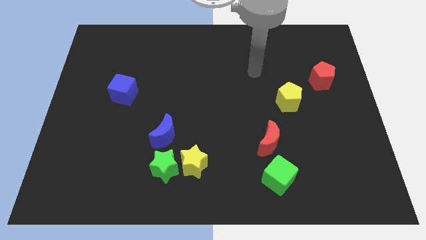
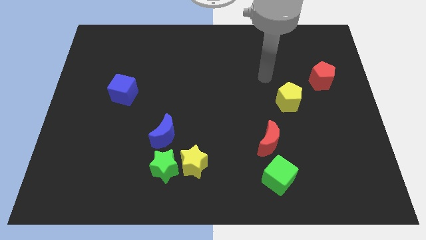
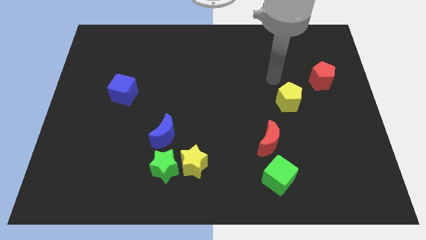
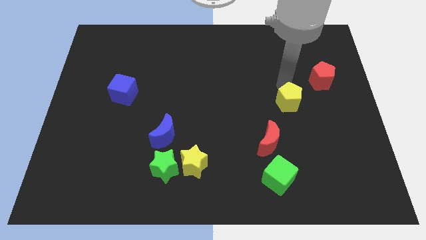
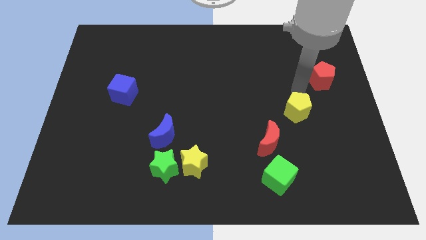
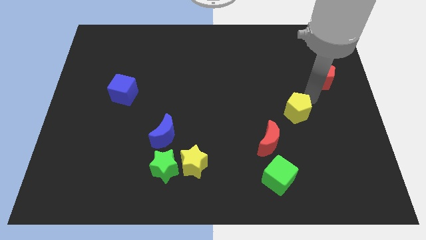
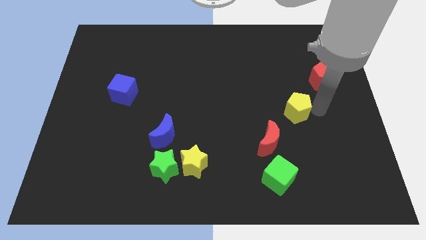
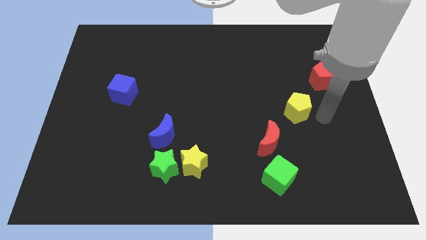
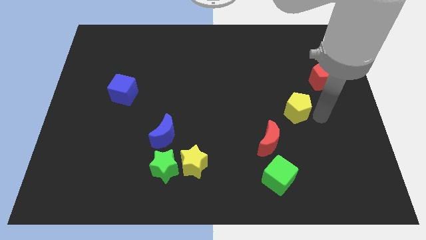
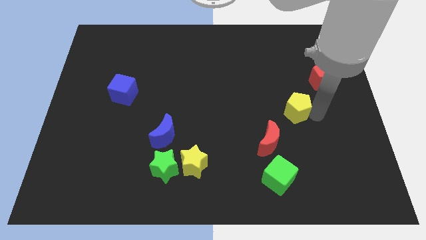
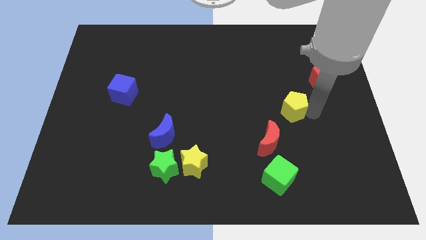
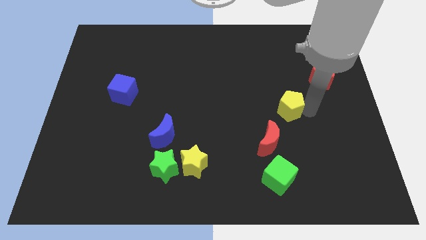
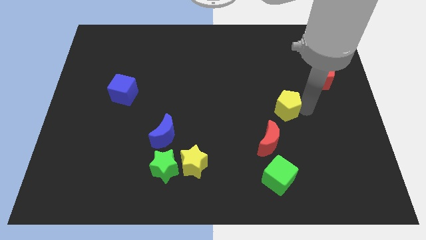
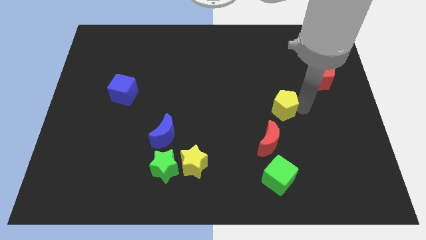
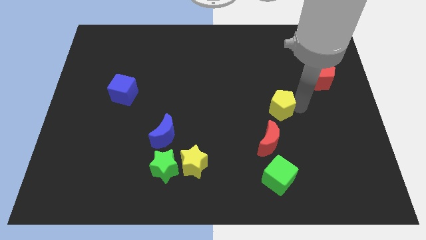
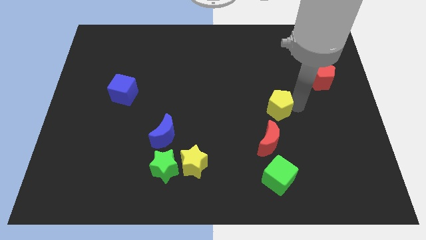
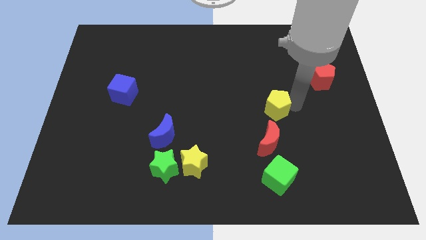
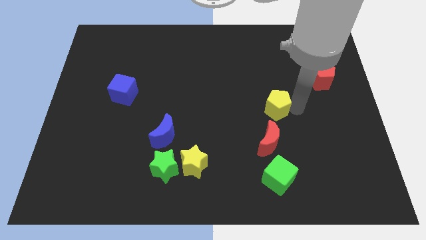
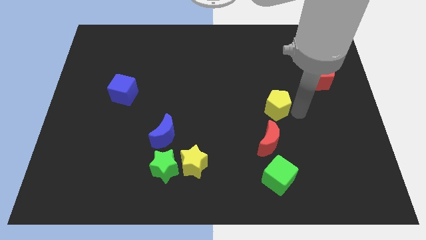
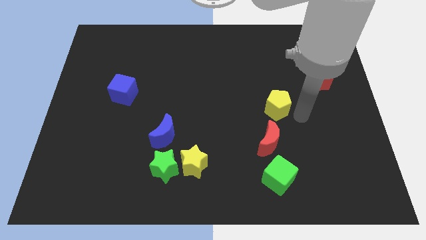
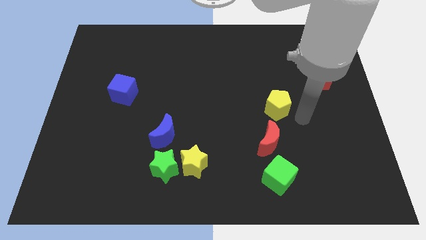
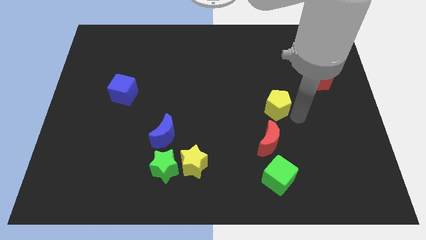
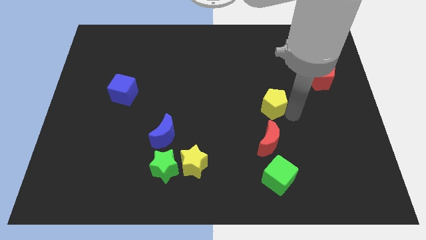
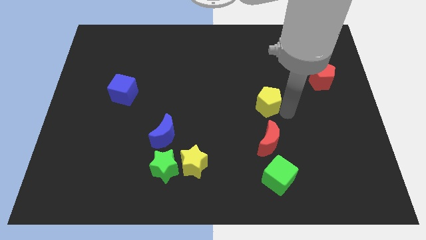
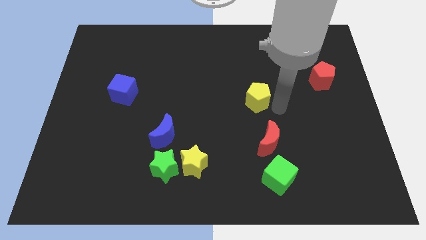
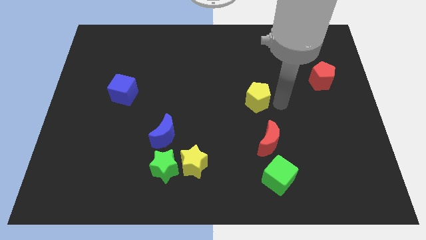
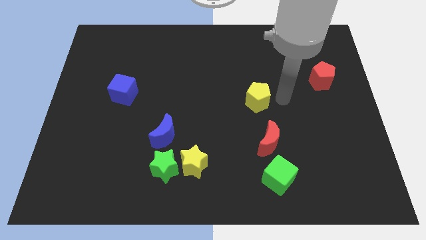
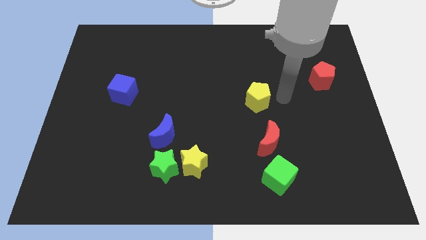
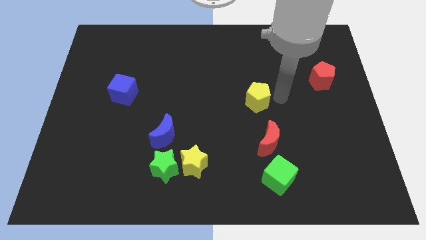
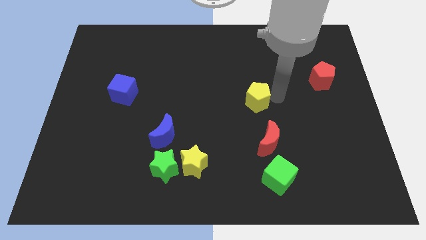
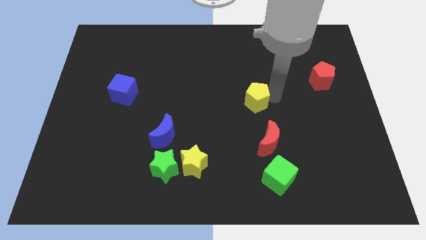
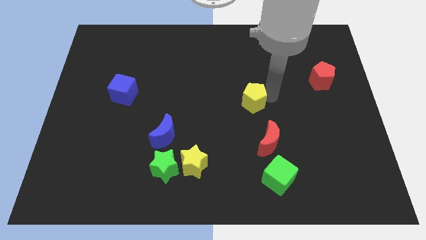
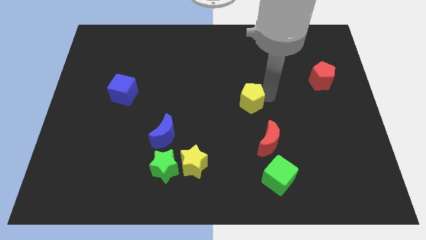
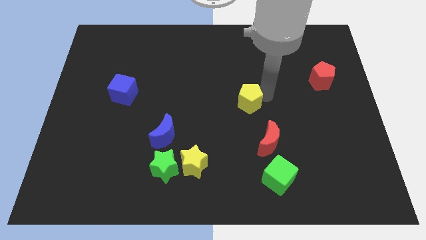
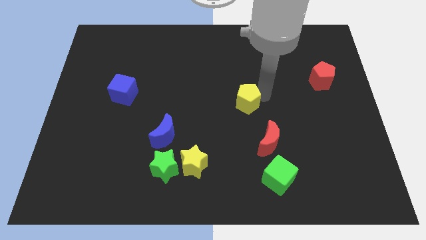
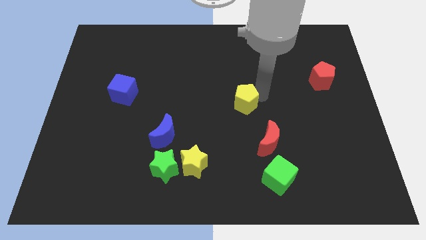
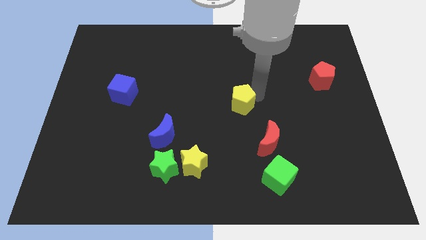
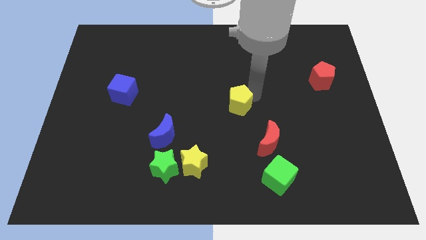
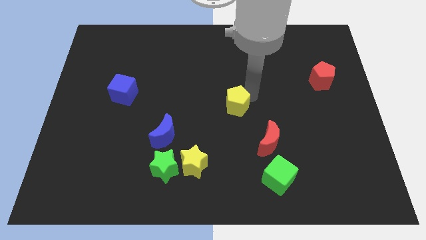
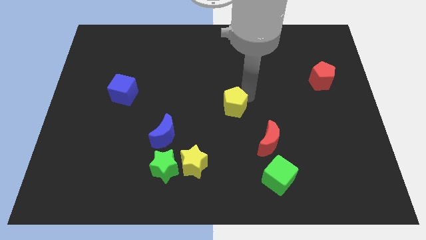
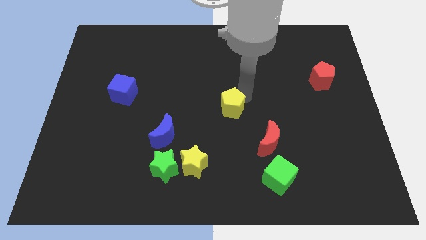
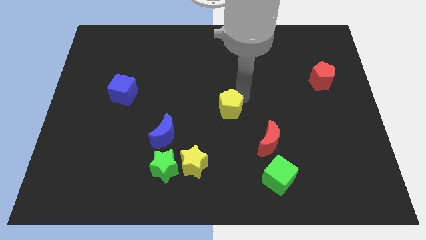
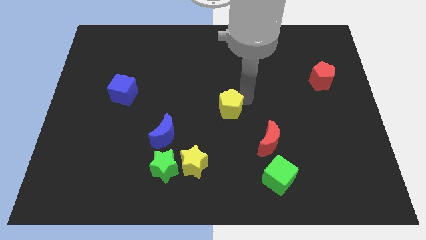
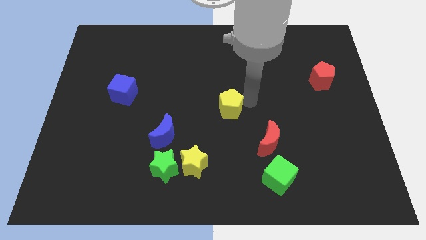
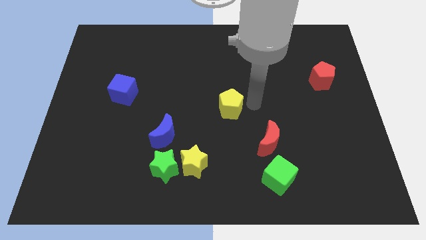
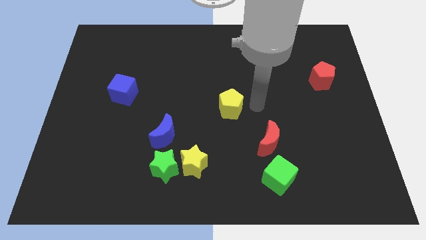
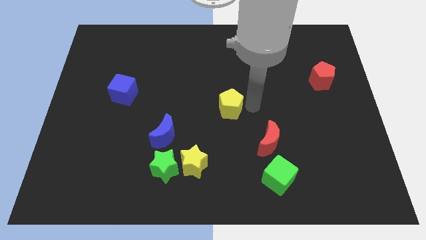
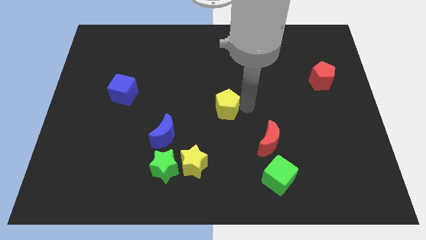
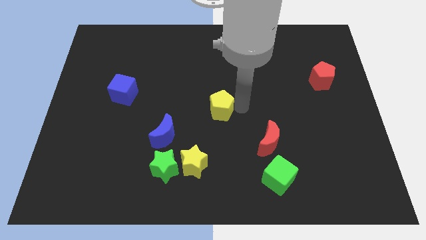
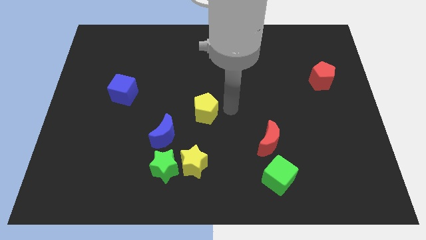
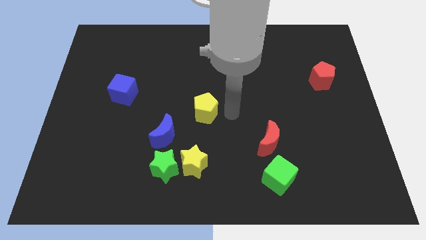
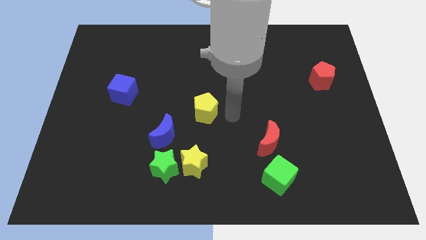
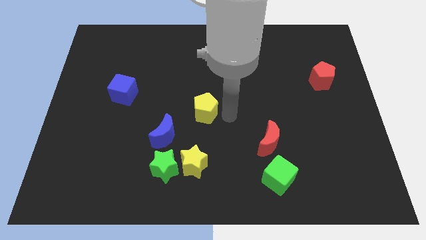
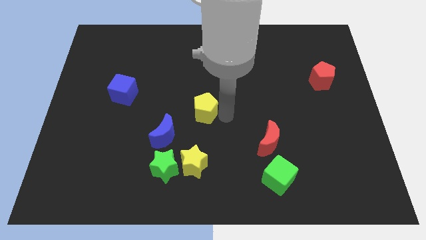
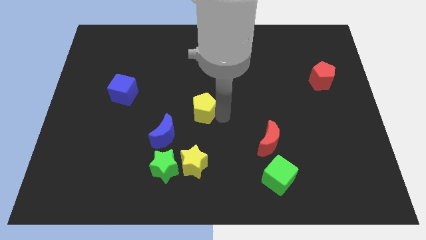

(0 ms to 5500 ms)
slide the yellow pentagon left

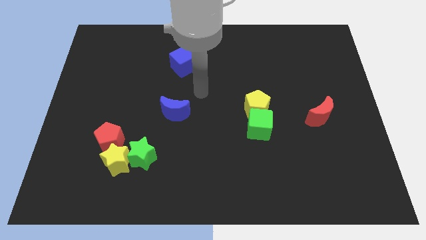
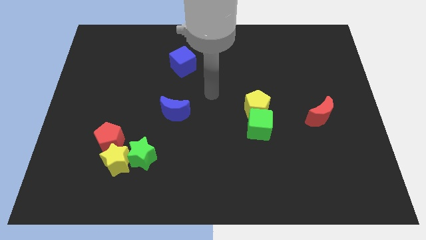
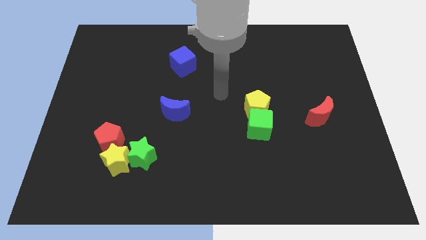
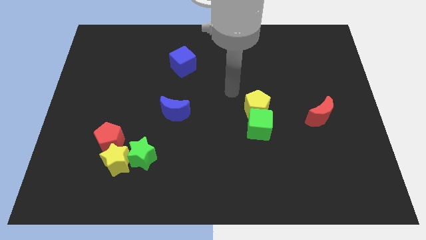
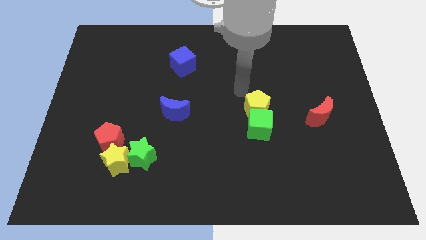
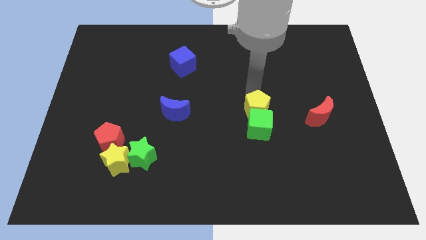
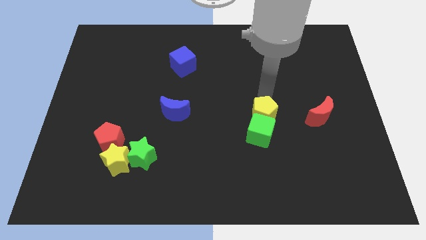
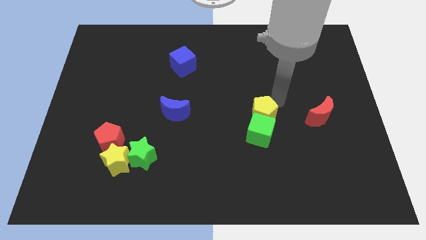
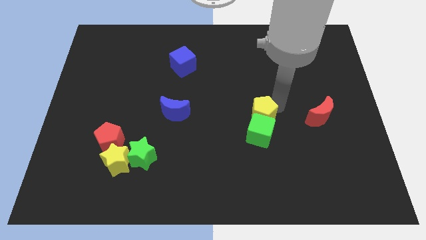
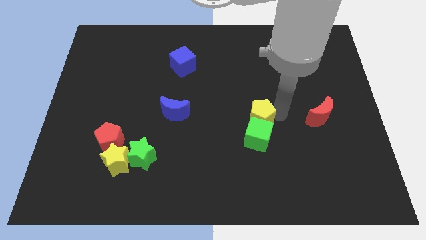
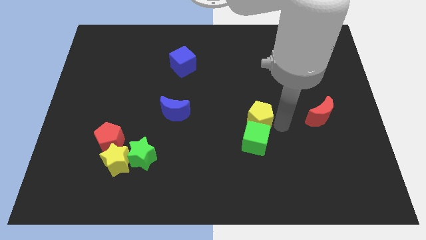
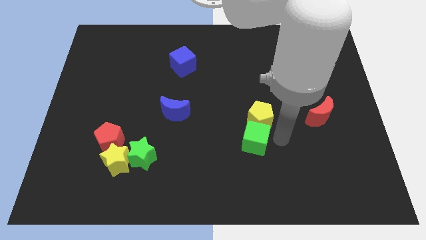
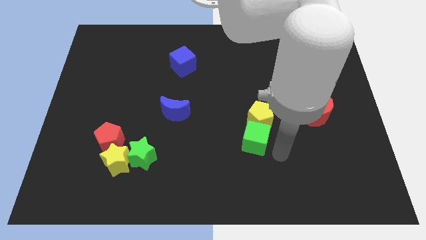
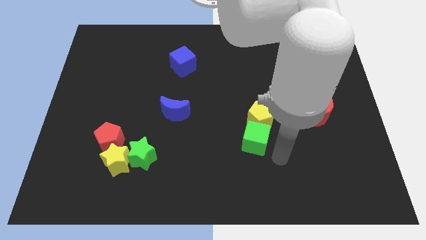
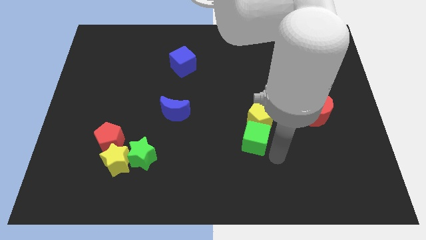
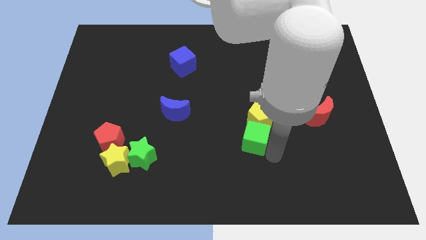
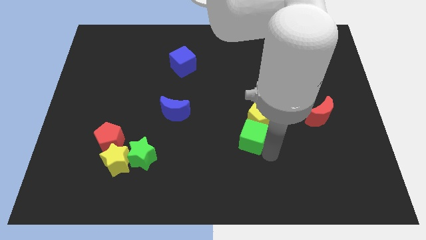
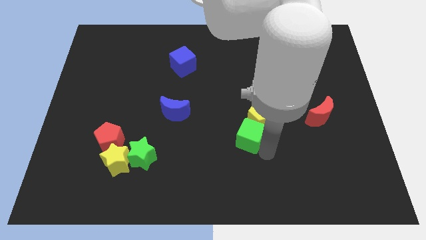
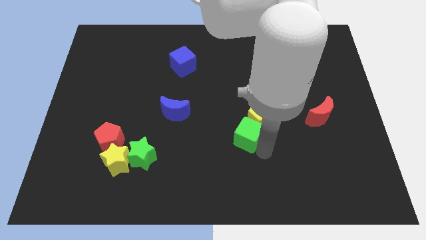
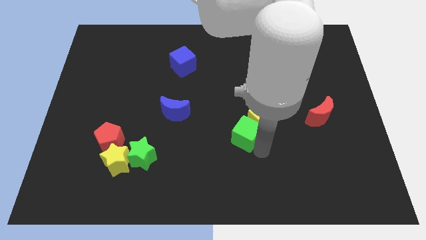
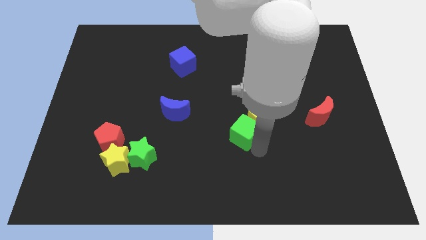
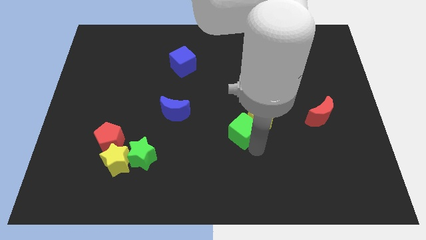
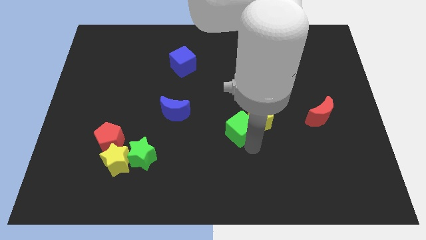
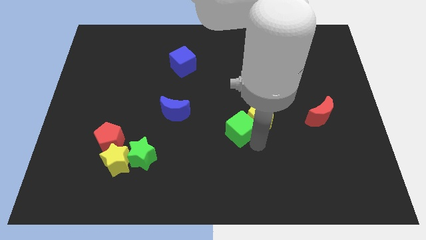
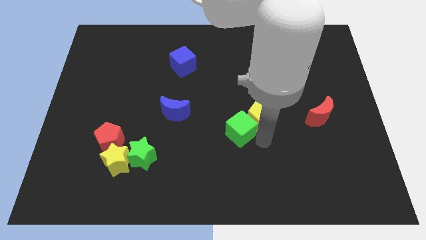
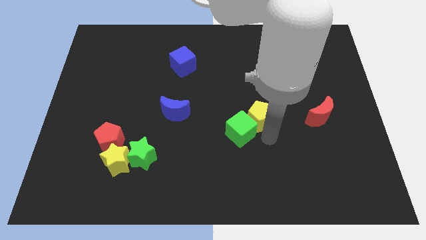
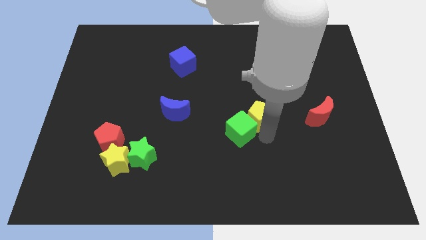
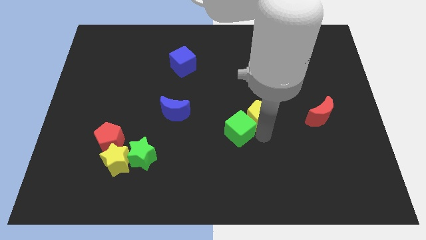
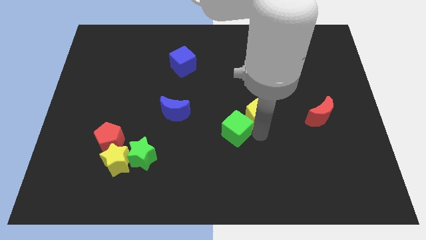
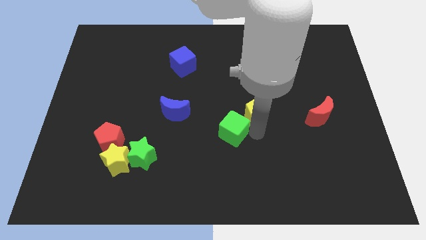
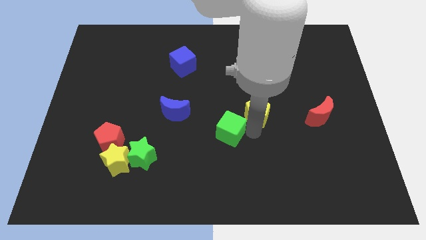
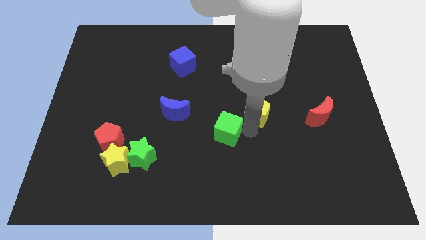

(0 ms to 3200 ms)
move the green cube left somewhat
